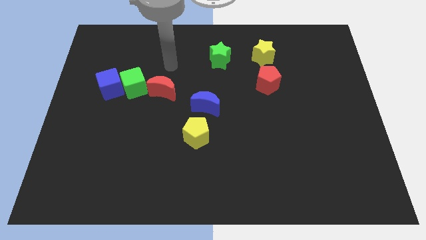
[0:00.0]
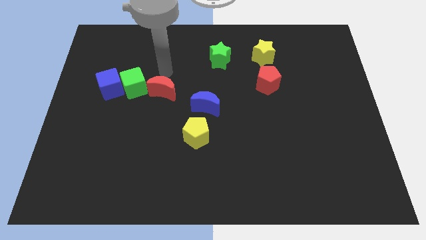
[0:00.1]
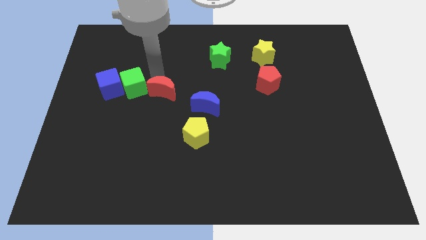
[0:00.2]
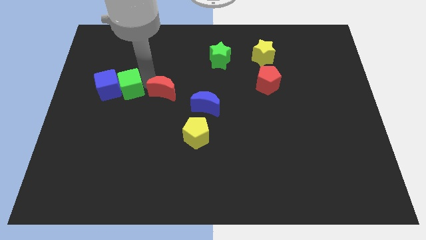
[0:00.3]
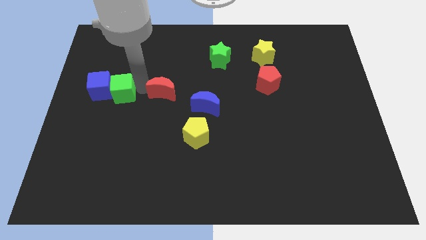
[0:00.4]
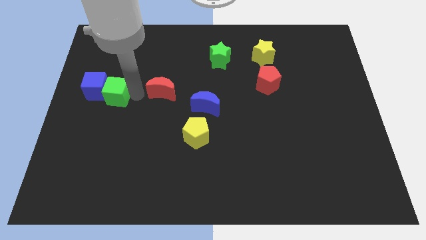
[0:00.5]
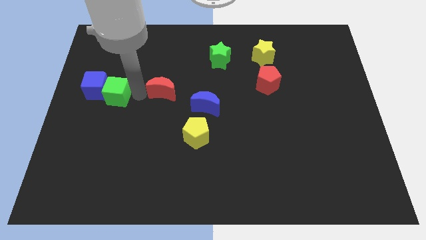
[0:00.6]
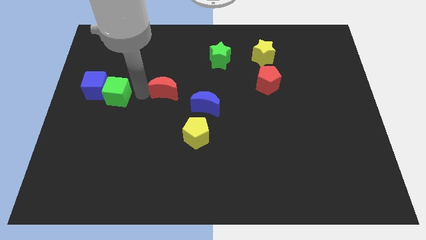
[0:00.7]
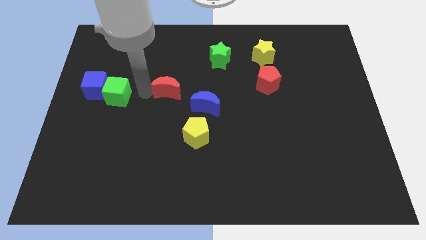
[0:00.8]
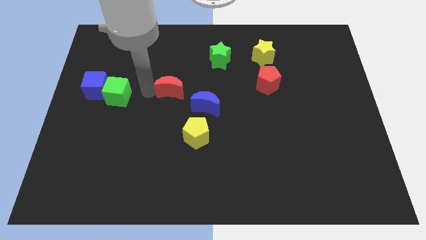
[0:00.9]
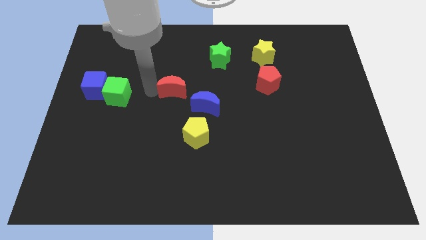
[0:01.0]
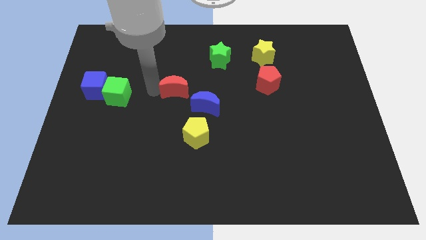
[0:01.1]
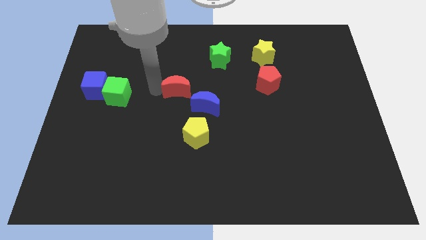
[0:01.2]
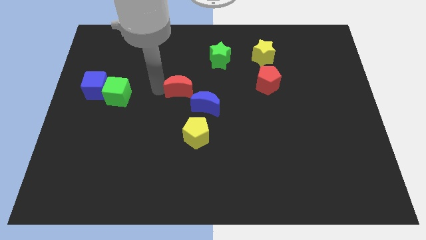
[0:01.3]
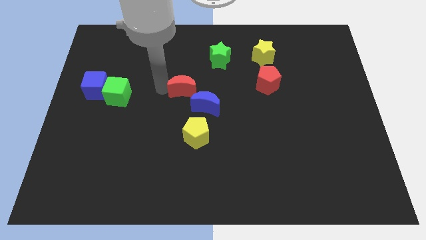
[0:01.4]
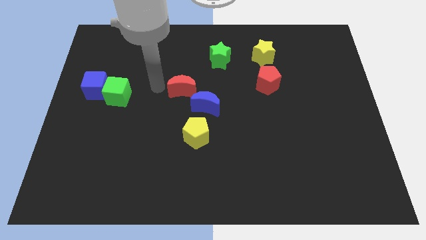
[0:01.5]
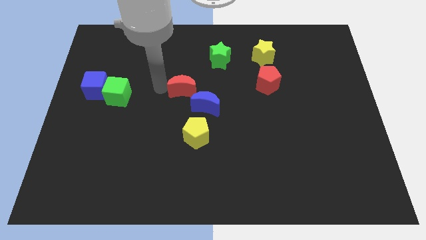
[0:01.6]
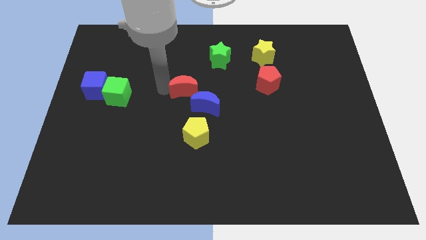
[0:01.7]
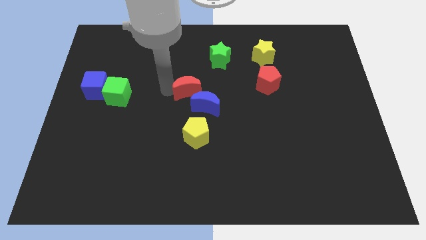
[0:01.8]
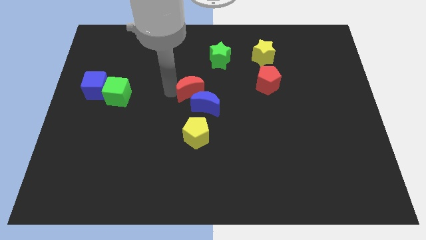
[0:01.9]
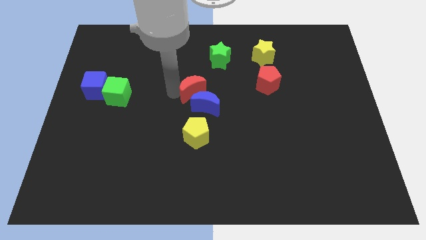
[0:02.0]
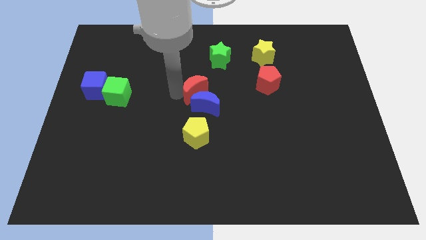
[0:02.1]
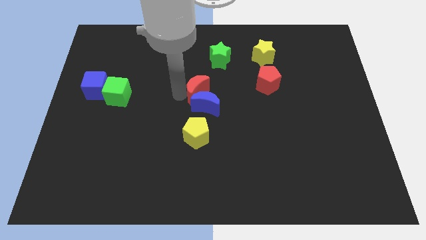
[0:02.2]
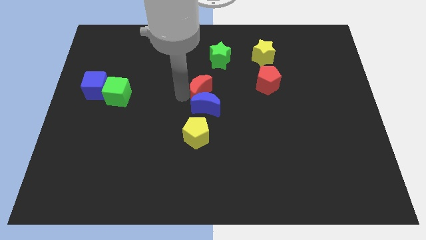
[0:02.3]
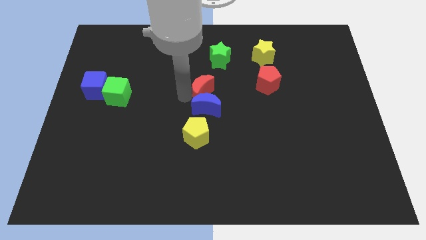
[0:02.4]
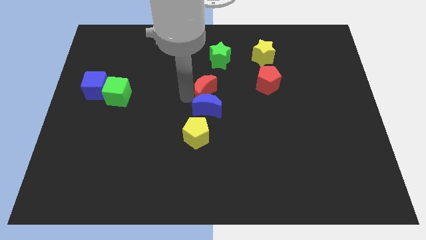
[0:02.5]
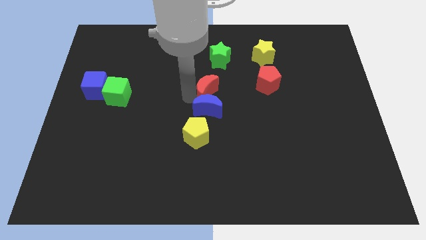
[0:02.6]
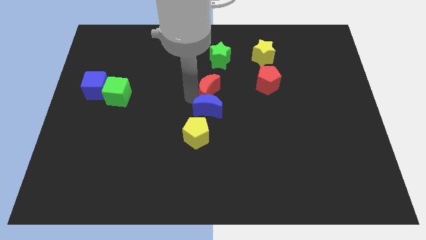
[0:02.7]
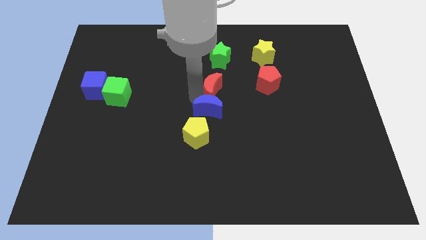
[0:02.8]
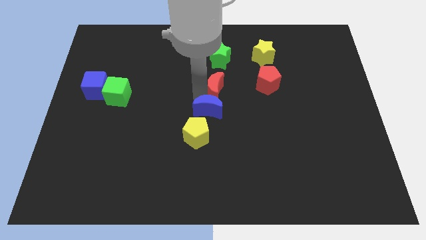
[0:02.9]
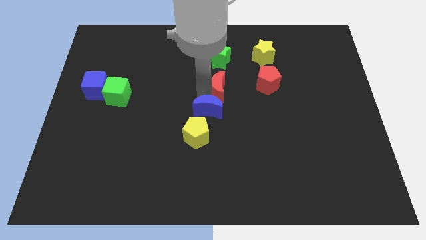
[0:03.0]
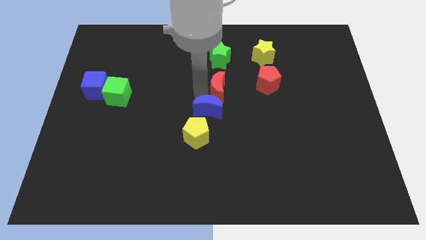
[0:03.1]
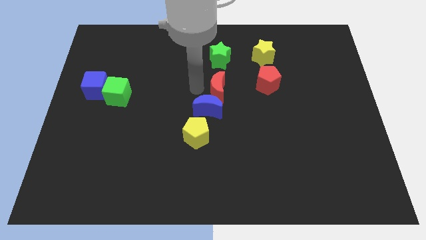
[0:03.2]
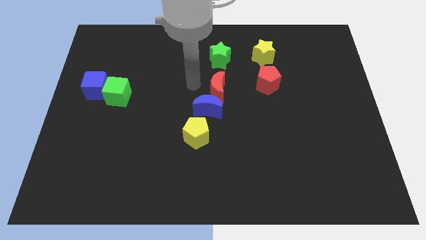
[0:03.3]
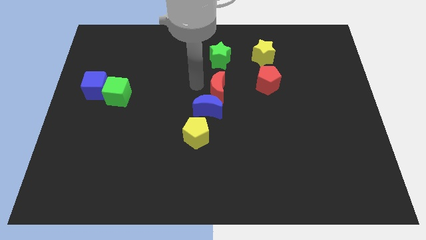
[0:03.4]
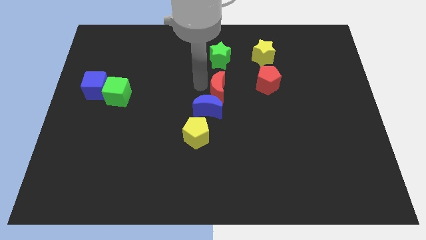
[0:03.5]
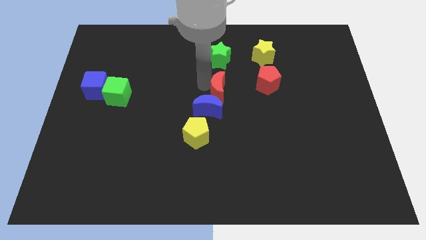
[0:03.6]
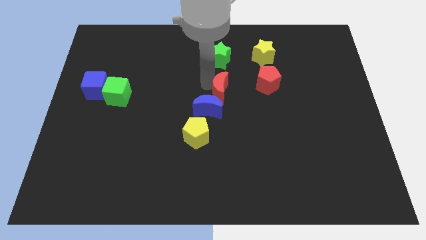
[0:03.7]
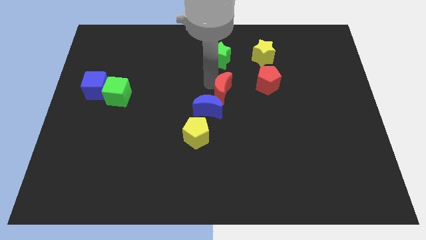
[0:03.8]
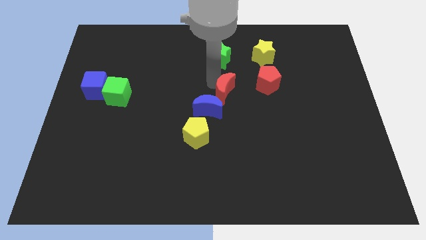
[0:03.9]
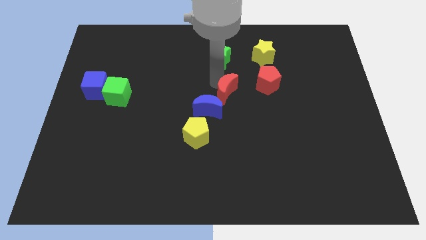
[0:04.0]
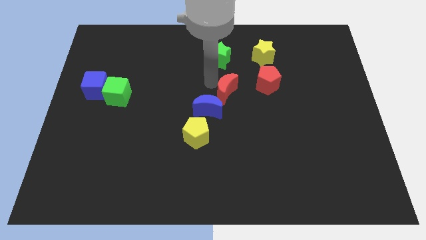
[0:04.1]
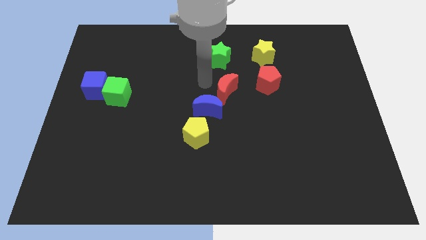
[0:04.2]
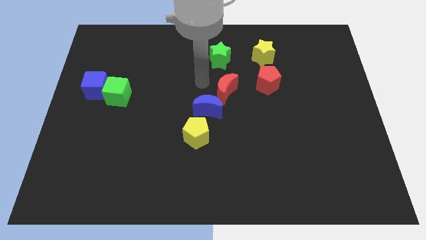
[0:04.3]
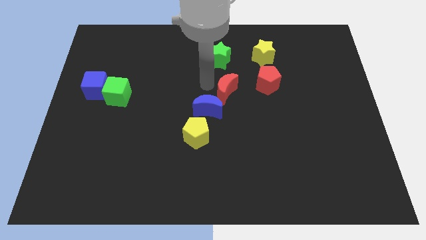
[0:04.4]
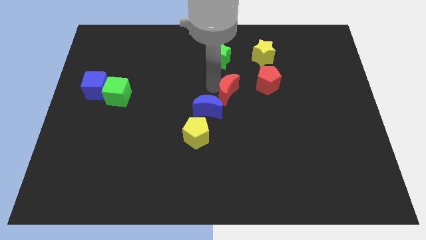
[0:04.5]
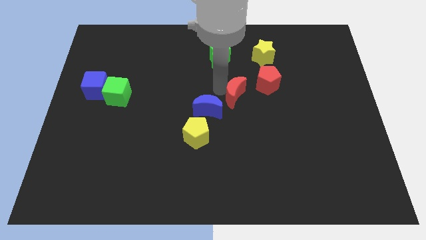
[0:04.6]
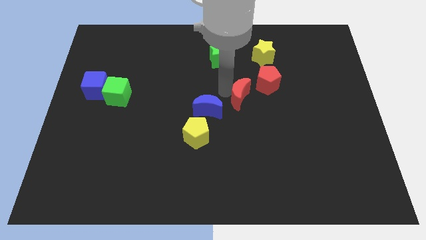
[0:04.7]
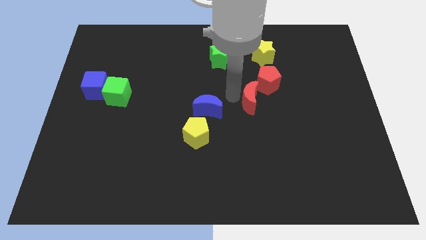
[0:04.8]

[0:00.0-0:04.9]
slide the red moon right

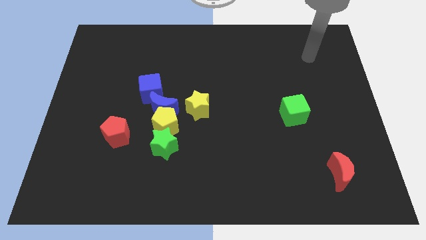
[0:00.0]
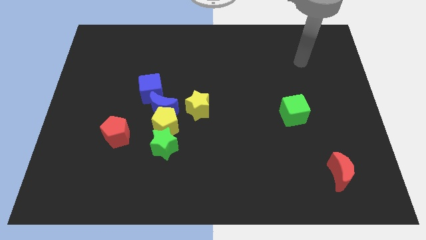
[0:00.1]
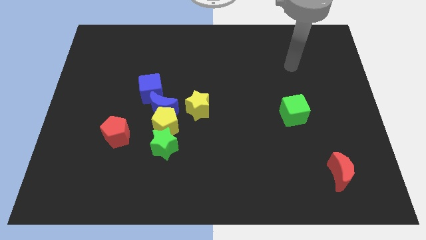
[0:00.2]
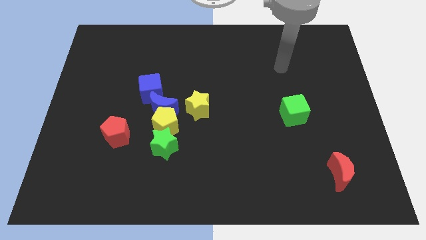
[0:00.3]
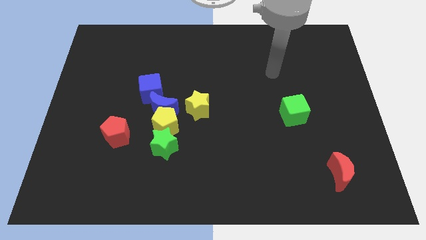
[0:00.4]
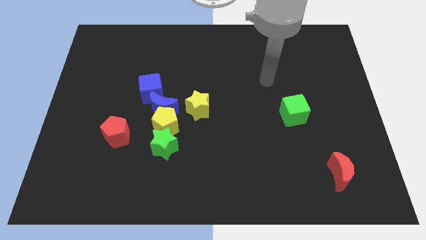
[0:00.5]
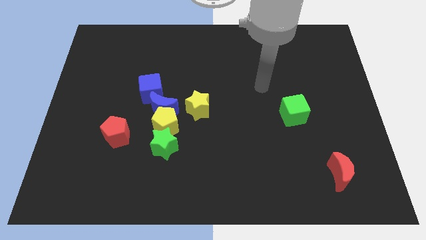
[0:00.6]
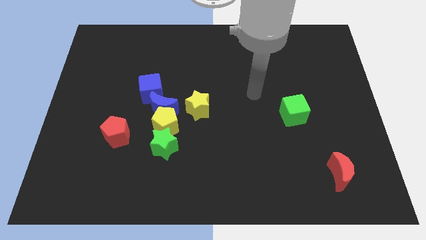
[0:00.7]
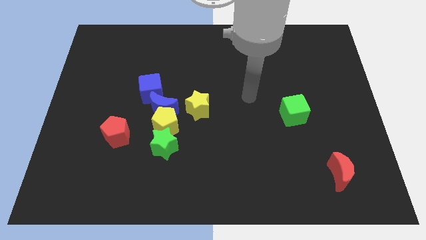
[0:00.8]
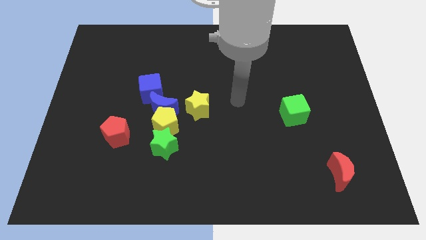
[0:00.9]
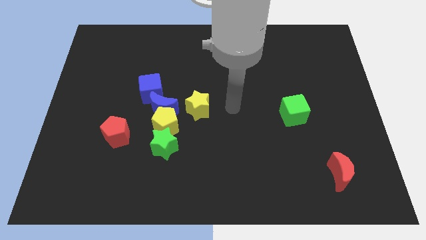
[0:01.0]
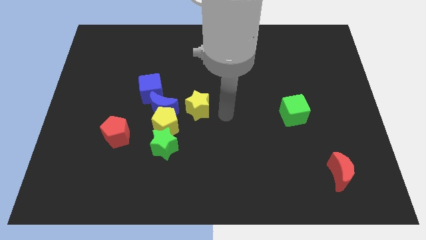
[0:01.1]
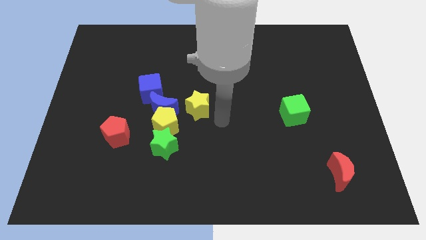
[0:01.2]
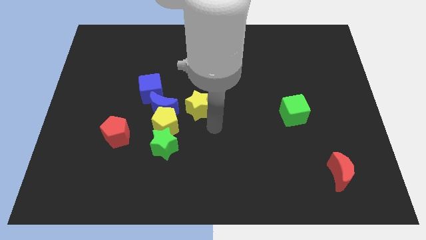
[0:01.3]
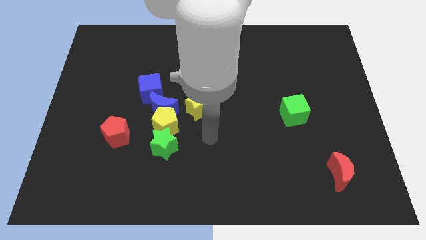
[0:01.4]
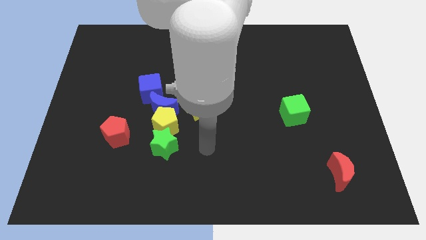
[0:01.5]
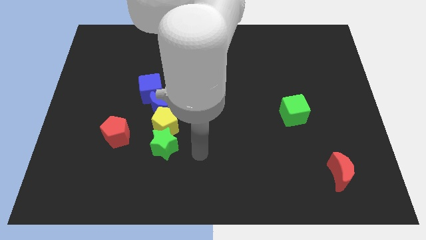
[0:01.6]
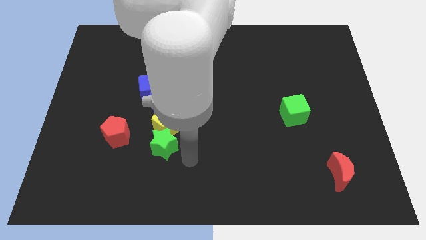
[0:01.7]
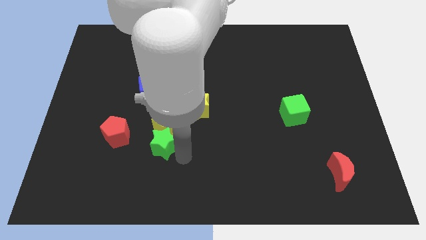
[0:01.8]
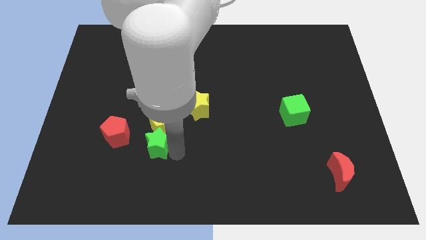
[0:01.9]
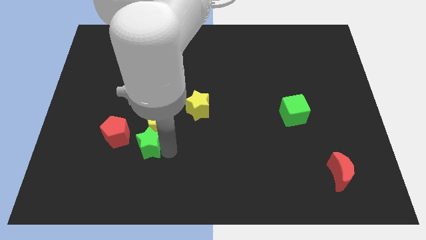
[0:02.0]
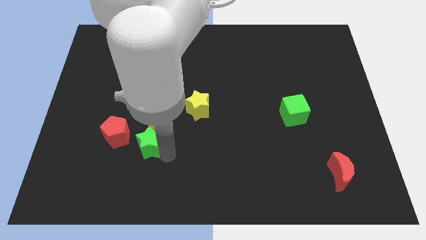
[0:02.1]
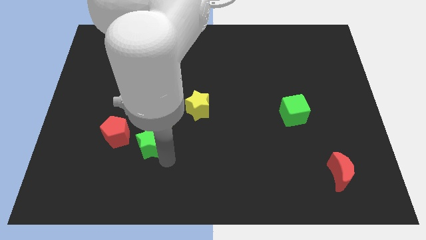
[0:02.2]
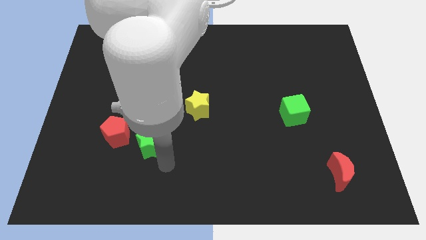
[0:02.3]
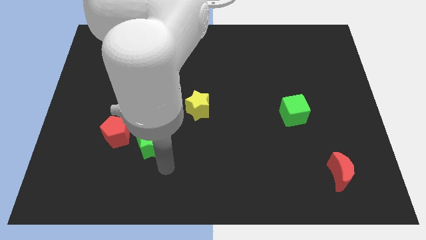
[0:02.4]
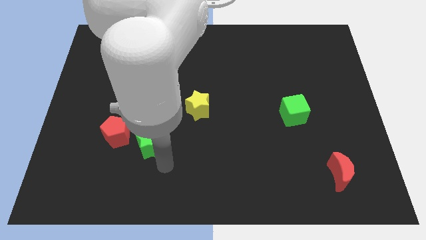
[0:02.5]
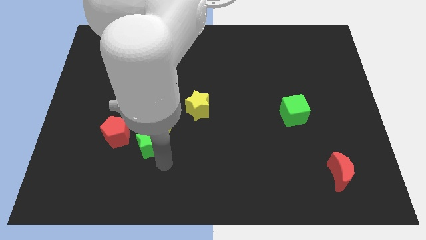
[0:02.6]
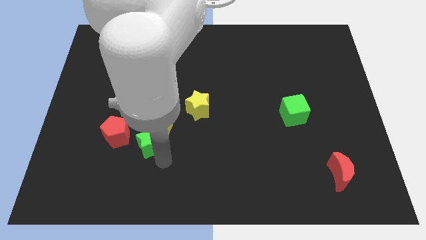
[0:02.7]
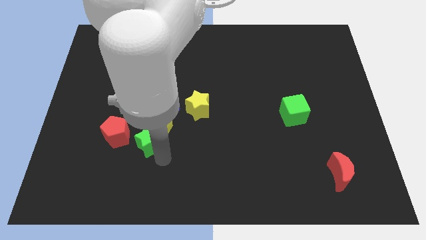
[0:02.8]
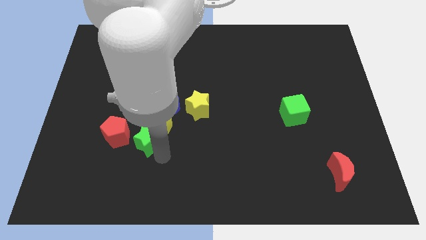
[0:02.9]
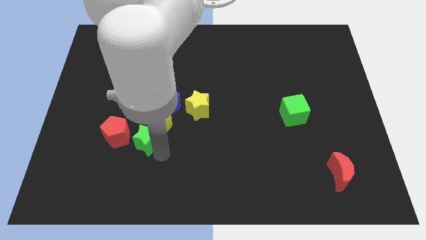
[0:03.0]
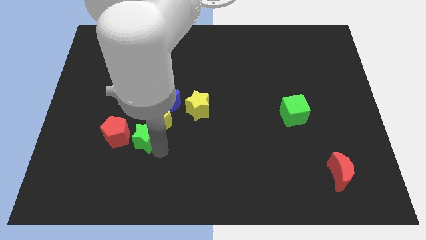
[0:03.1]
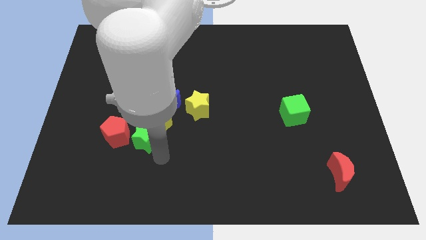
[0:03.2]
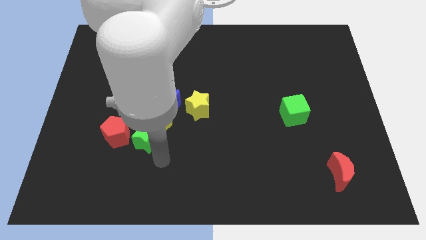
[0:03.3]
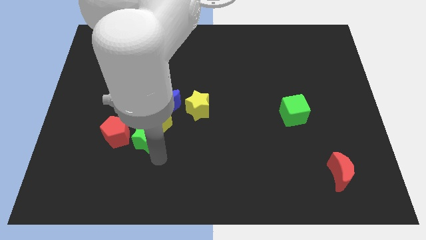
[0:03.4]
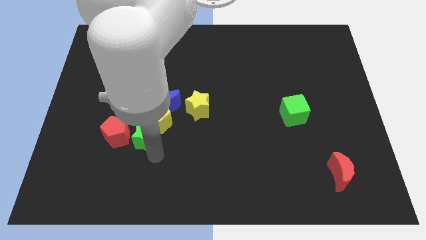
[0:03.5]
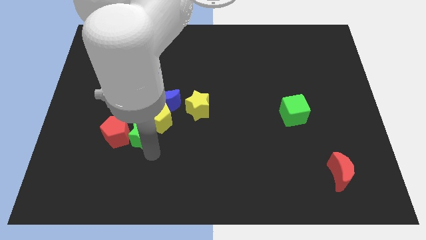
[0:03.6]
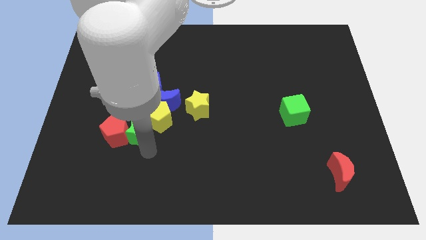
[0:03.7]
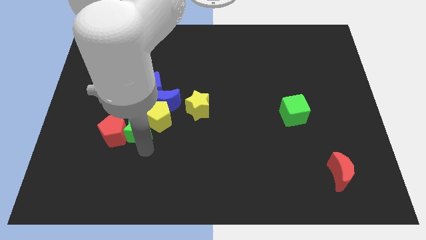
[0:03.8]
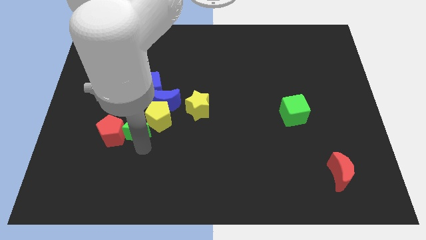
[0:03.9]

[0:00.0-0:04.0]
push the green star up and to the left slightly
